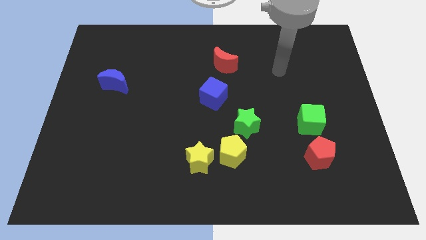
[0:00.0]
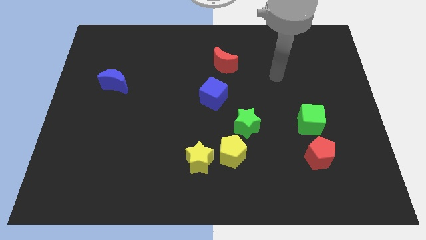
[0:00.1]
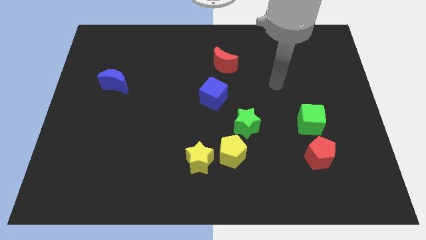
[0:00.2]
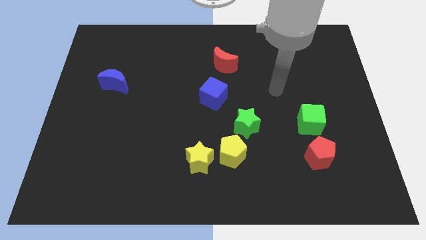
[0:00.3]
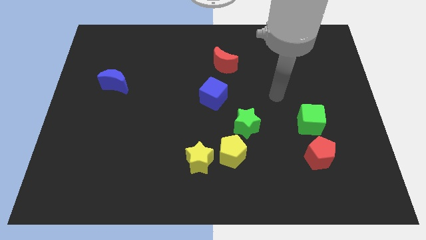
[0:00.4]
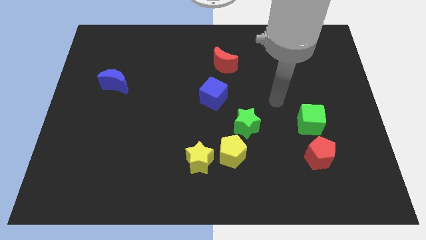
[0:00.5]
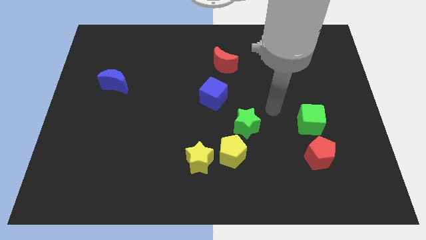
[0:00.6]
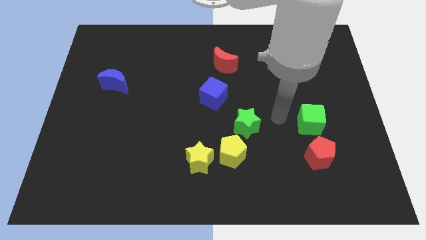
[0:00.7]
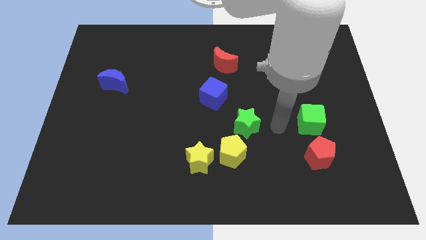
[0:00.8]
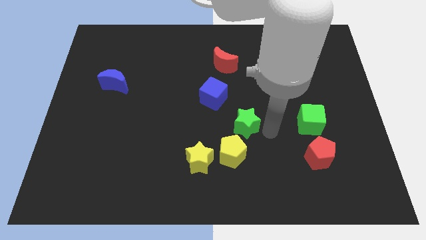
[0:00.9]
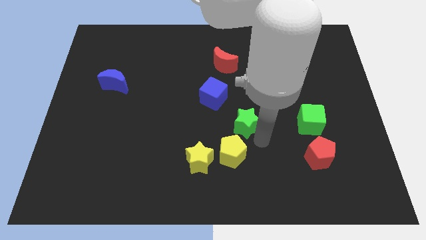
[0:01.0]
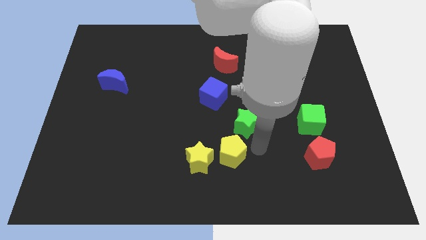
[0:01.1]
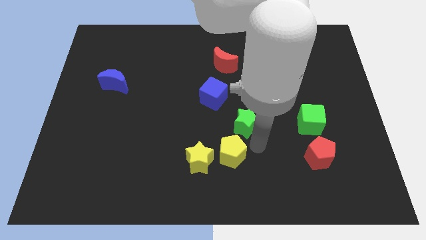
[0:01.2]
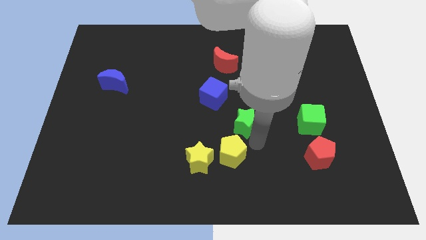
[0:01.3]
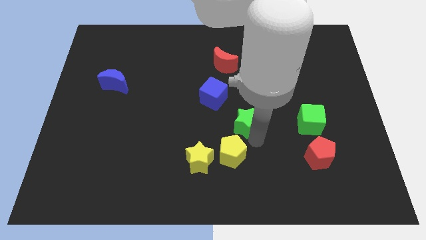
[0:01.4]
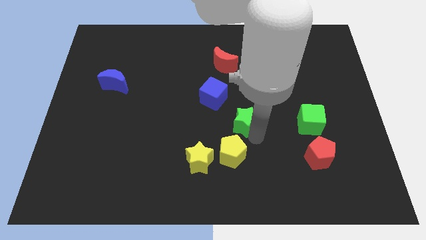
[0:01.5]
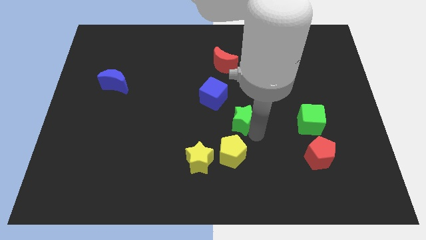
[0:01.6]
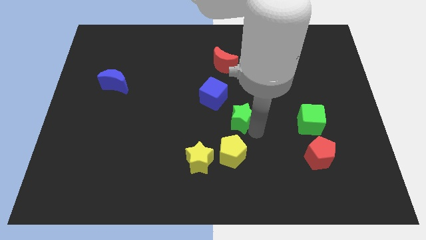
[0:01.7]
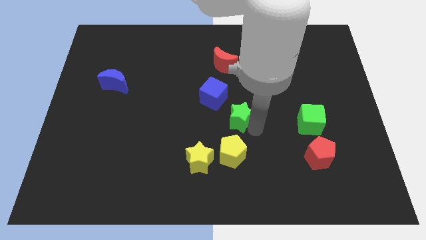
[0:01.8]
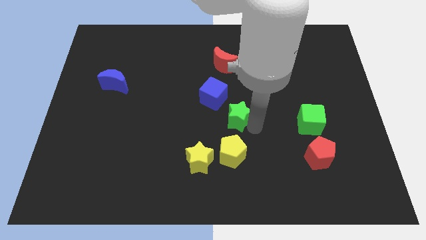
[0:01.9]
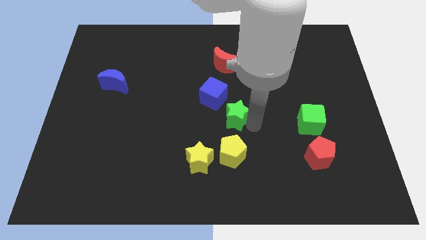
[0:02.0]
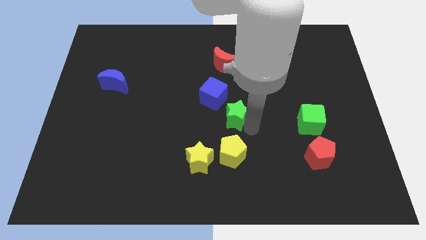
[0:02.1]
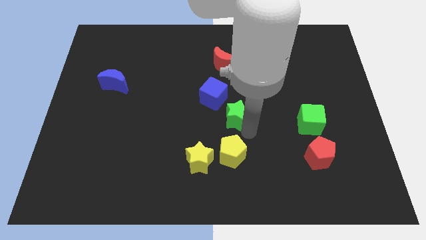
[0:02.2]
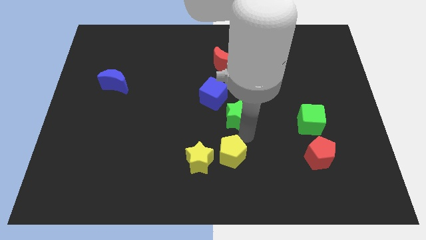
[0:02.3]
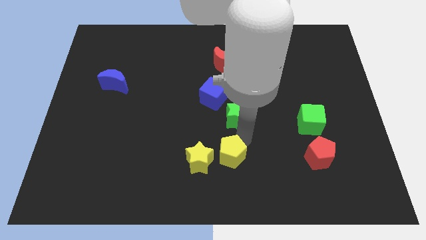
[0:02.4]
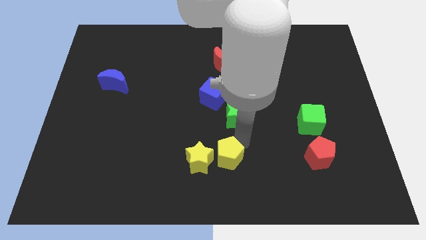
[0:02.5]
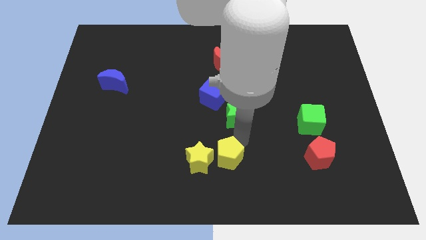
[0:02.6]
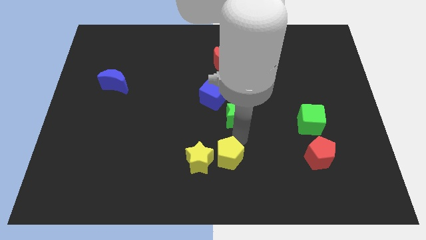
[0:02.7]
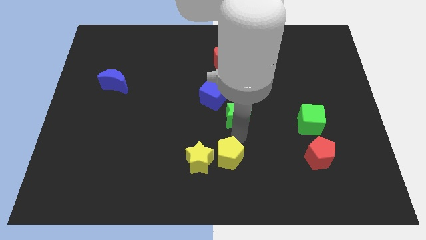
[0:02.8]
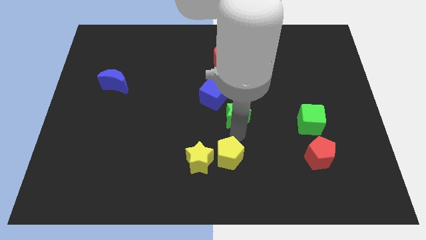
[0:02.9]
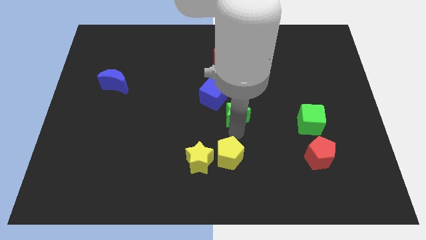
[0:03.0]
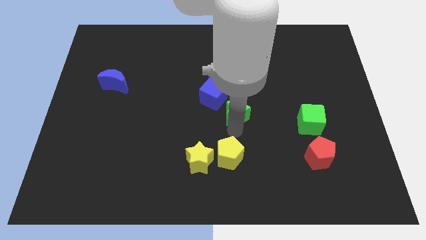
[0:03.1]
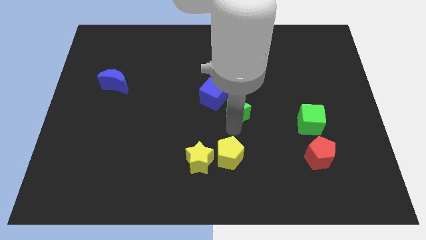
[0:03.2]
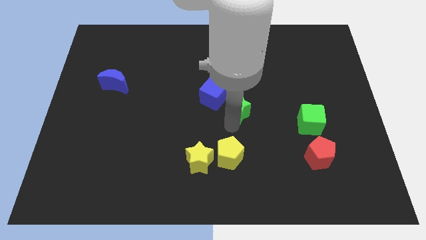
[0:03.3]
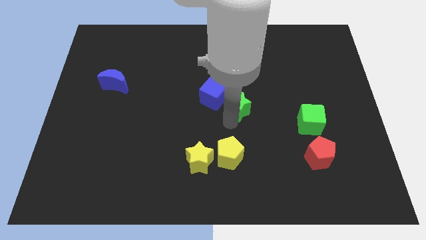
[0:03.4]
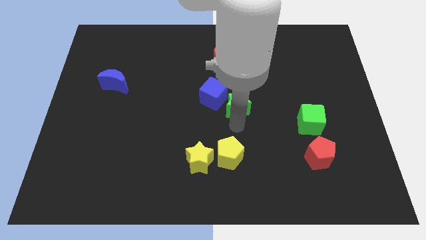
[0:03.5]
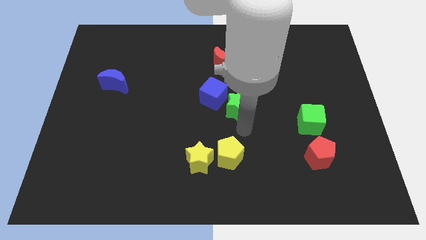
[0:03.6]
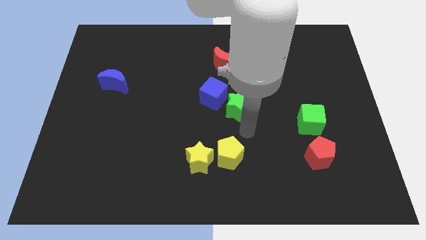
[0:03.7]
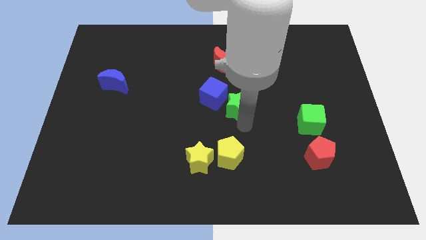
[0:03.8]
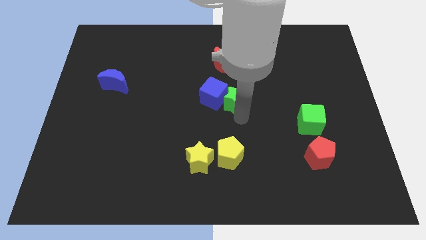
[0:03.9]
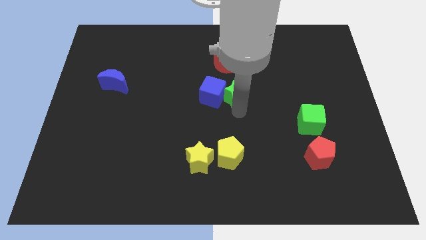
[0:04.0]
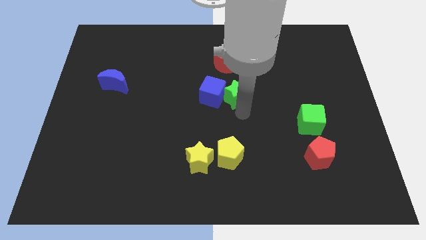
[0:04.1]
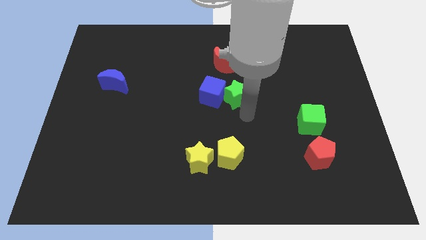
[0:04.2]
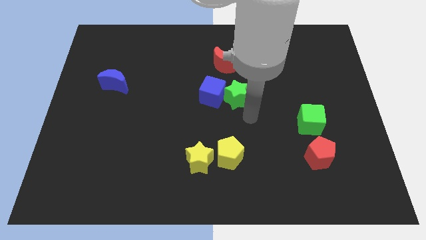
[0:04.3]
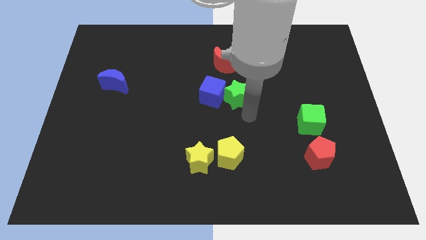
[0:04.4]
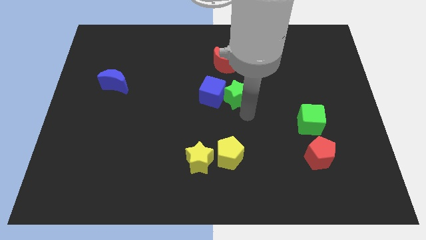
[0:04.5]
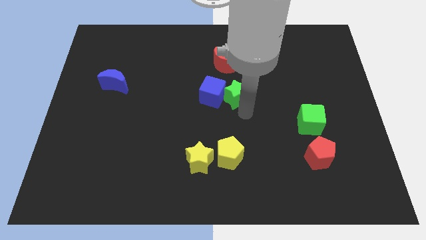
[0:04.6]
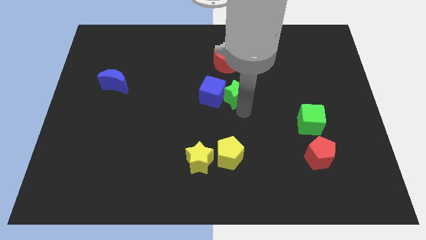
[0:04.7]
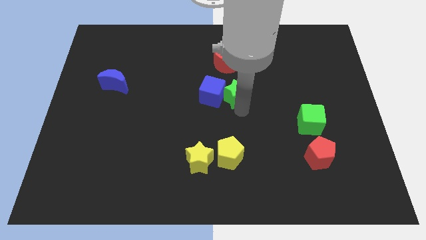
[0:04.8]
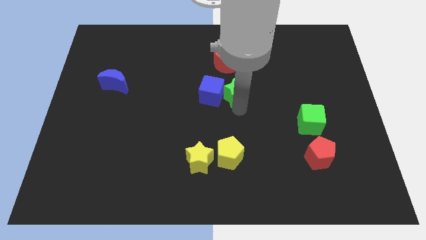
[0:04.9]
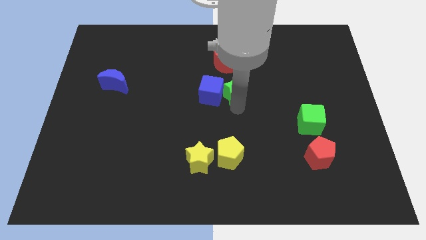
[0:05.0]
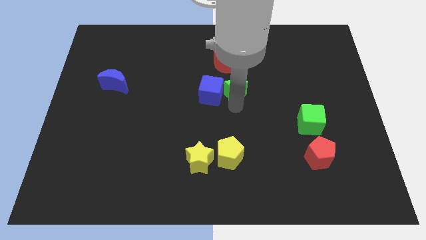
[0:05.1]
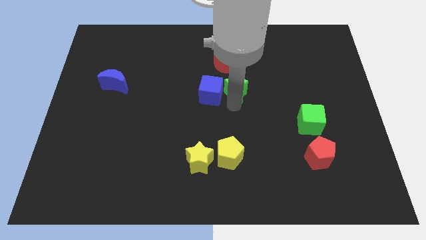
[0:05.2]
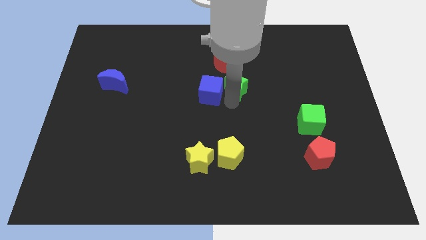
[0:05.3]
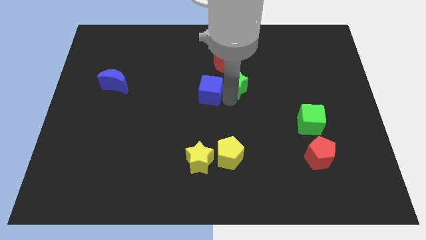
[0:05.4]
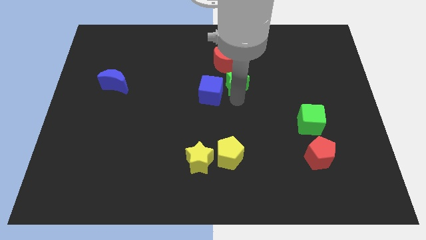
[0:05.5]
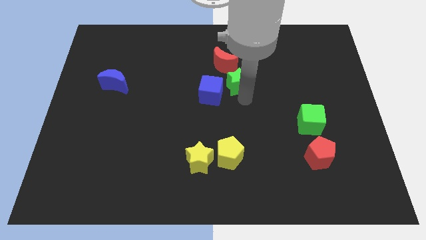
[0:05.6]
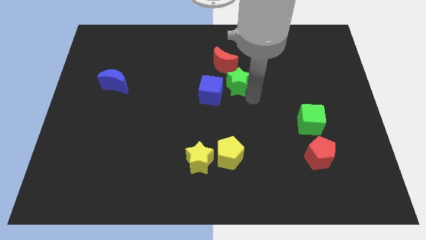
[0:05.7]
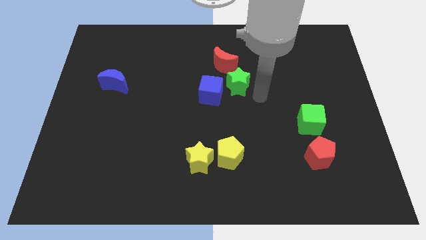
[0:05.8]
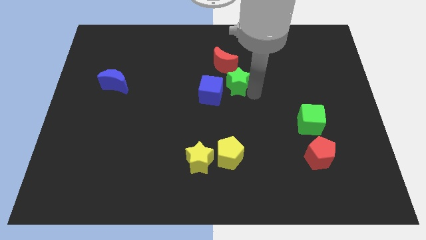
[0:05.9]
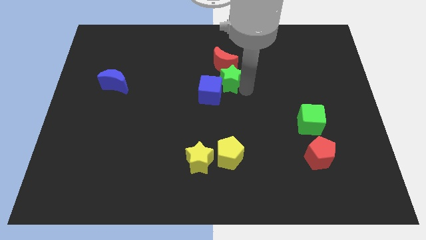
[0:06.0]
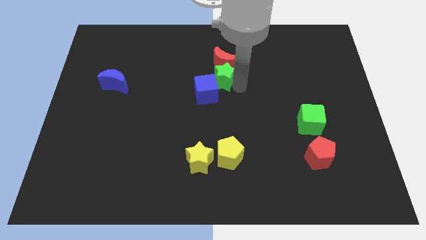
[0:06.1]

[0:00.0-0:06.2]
move the green star above the blue cube
